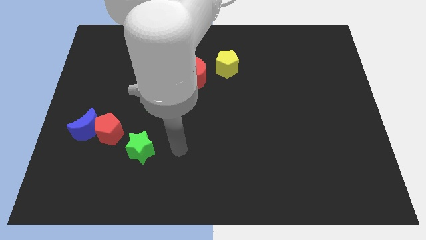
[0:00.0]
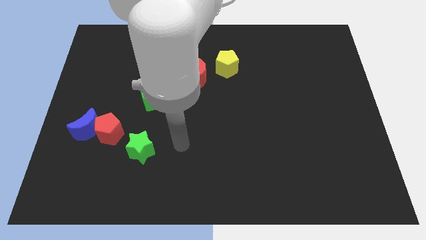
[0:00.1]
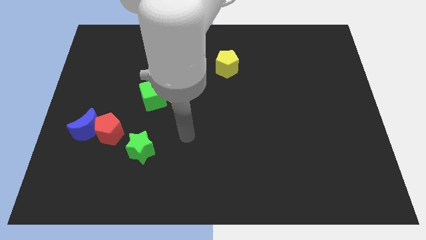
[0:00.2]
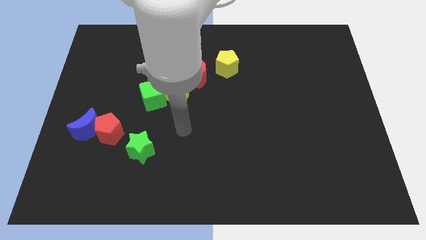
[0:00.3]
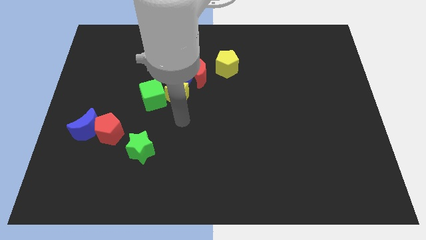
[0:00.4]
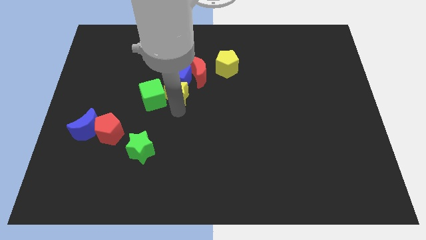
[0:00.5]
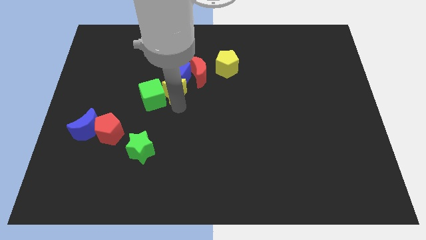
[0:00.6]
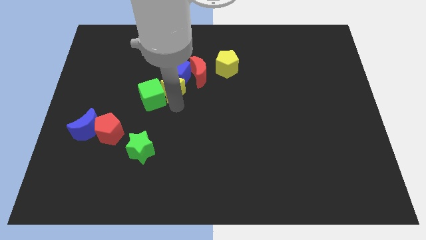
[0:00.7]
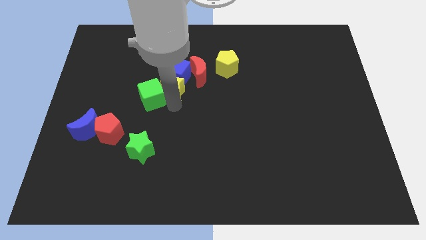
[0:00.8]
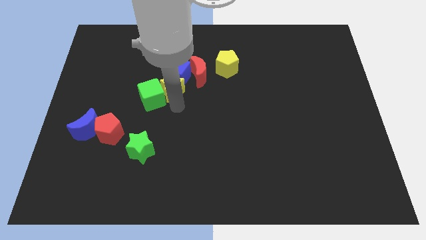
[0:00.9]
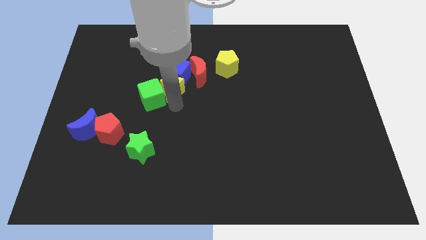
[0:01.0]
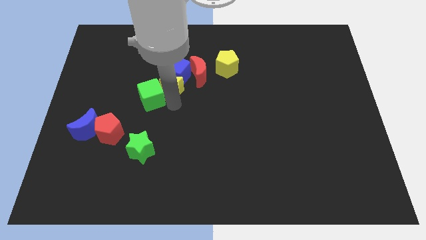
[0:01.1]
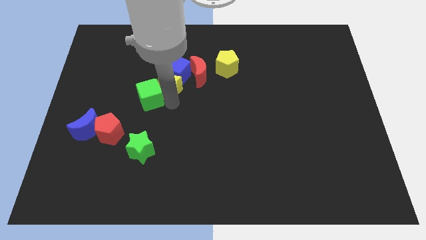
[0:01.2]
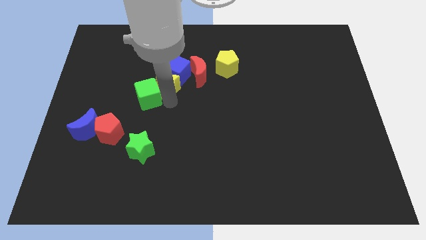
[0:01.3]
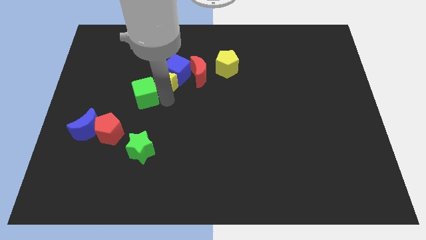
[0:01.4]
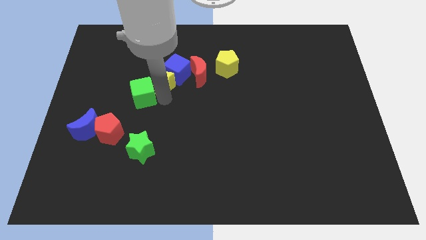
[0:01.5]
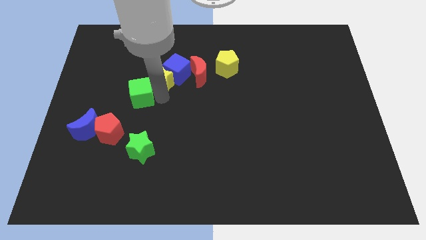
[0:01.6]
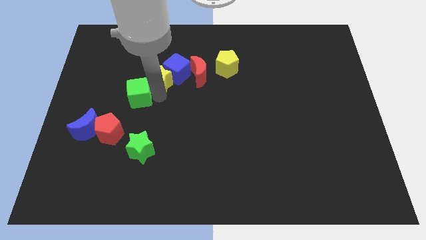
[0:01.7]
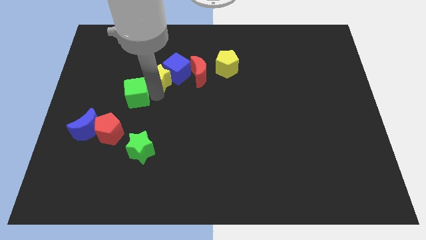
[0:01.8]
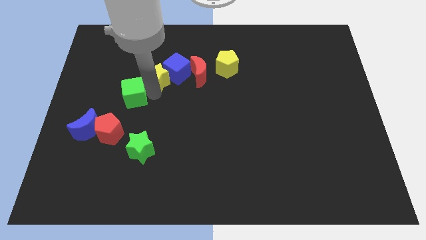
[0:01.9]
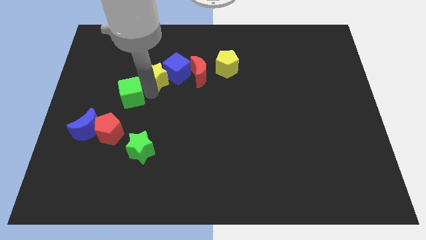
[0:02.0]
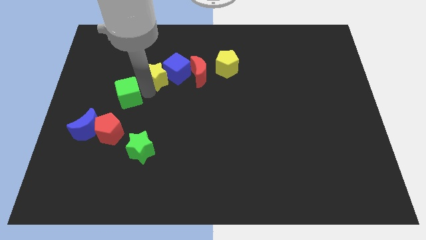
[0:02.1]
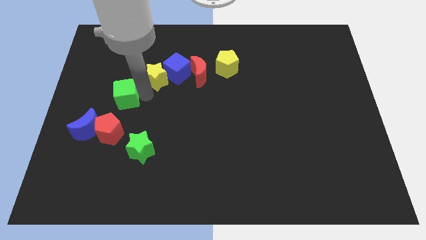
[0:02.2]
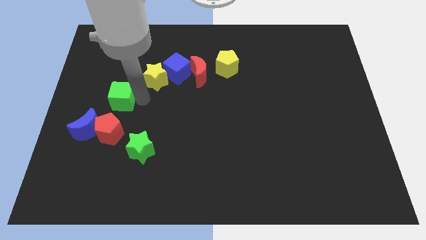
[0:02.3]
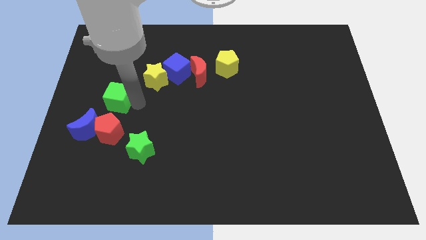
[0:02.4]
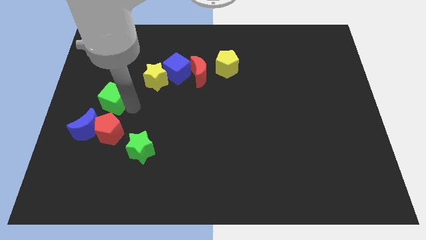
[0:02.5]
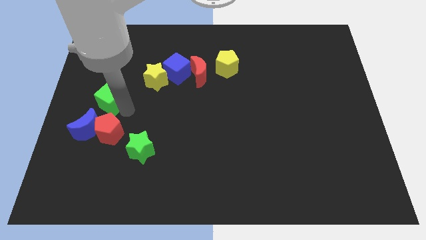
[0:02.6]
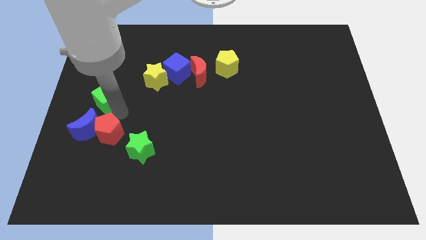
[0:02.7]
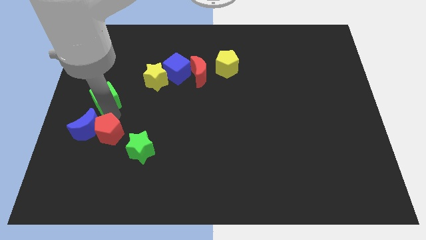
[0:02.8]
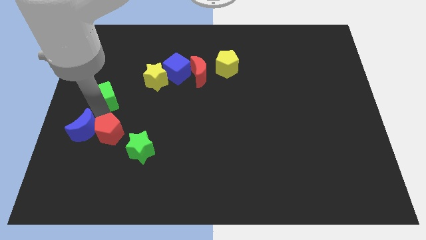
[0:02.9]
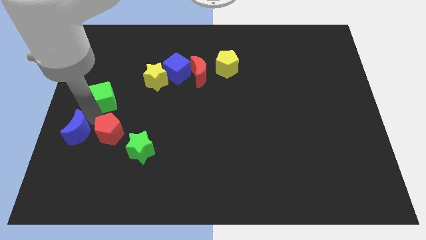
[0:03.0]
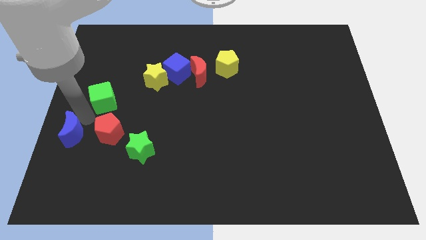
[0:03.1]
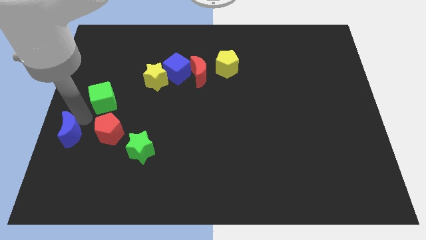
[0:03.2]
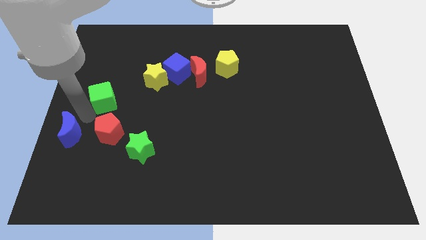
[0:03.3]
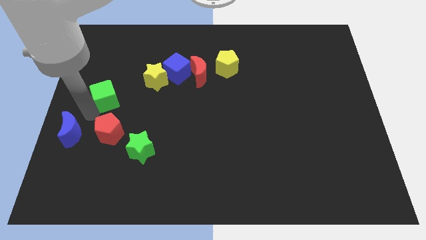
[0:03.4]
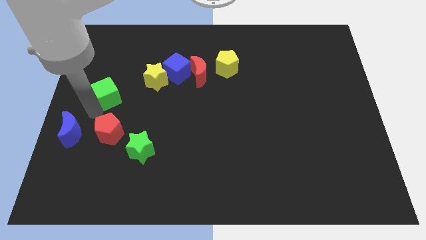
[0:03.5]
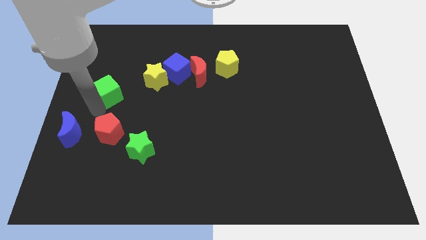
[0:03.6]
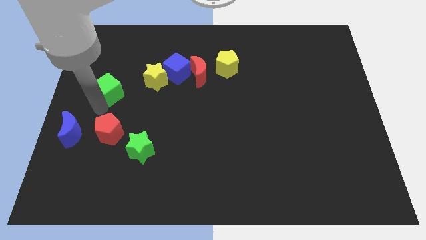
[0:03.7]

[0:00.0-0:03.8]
push the green cube a little bit up and to the left diagonally

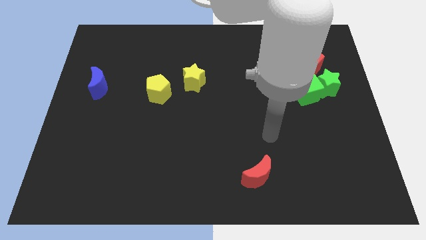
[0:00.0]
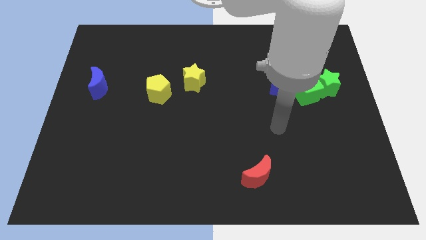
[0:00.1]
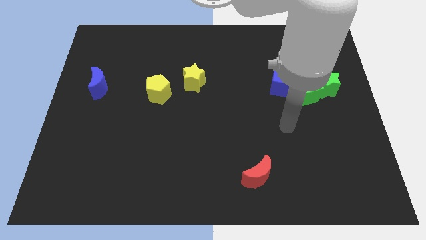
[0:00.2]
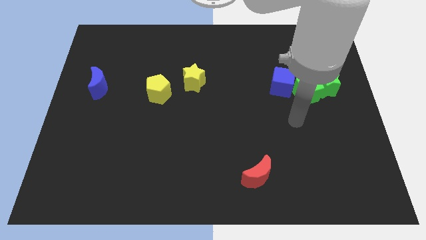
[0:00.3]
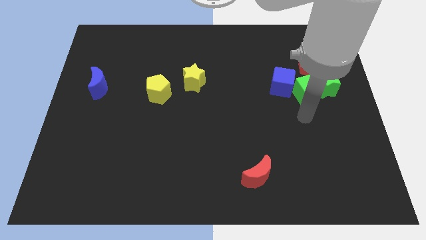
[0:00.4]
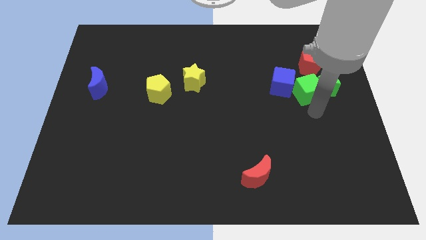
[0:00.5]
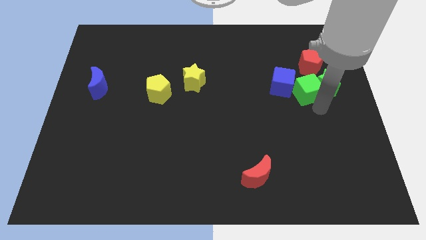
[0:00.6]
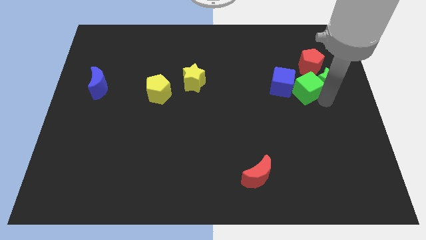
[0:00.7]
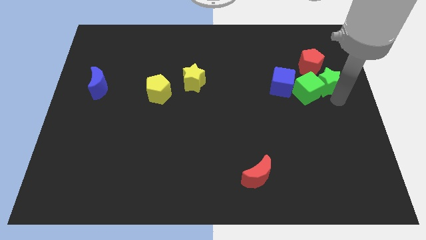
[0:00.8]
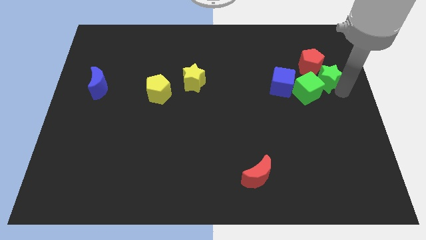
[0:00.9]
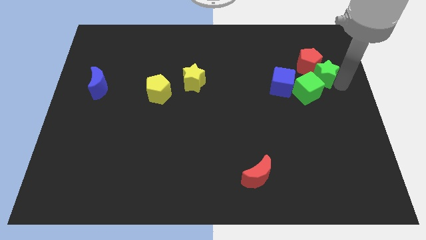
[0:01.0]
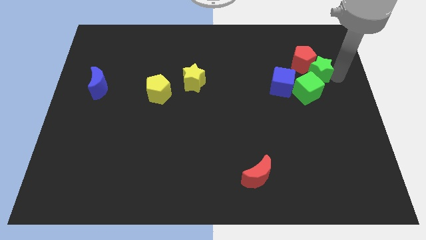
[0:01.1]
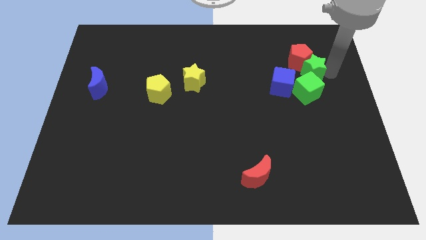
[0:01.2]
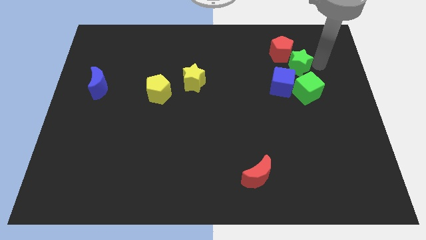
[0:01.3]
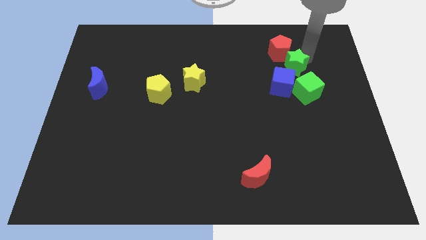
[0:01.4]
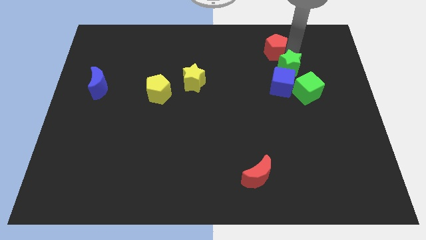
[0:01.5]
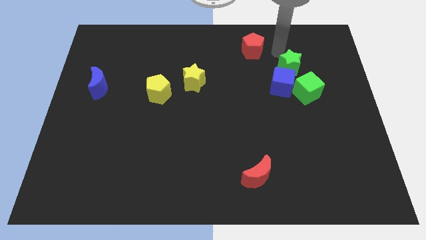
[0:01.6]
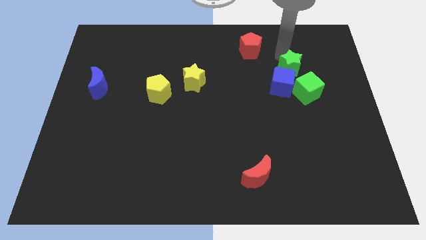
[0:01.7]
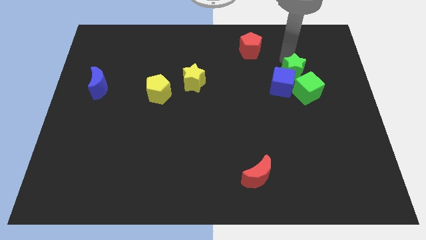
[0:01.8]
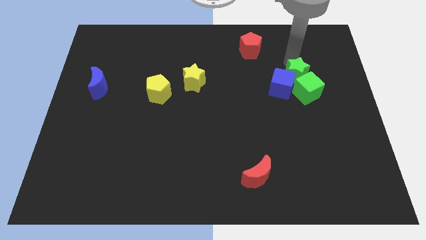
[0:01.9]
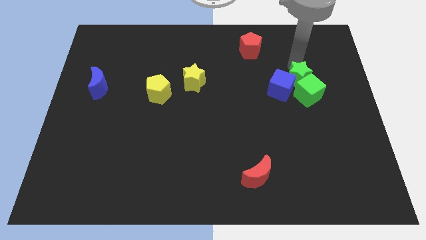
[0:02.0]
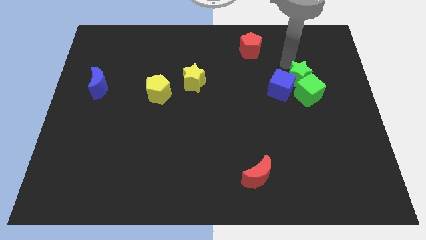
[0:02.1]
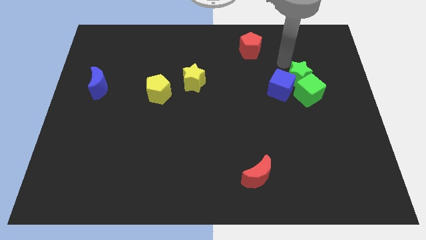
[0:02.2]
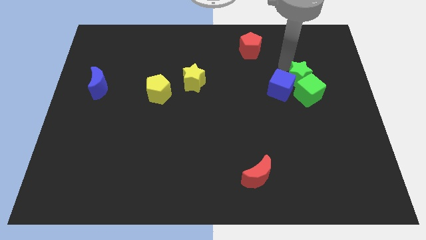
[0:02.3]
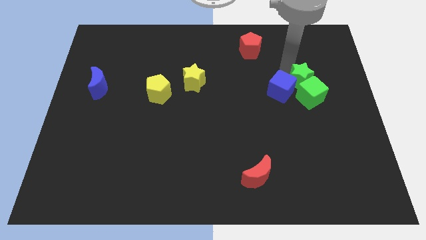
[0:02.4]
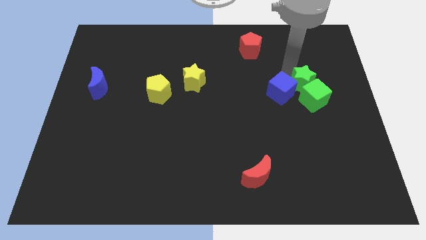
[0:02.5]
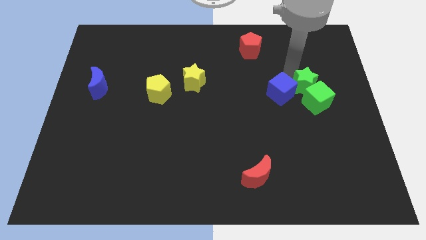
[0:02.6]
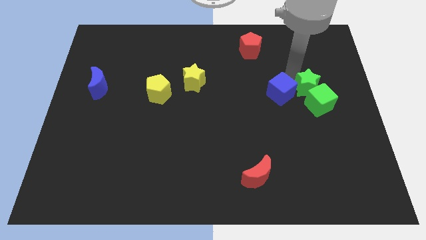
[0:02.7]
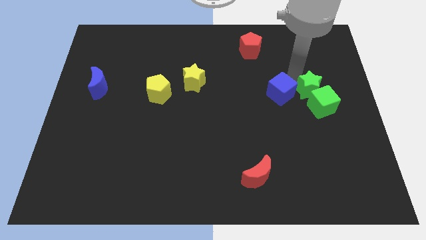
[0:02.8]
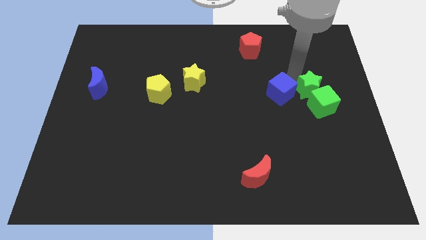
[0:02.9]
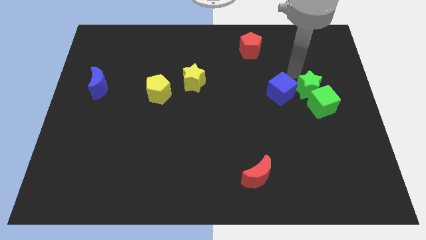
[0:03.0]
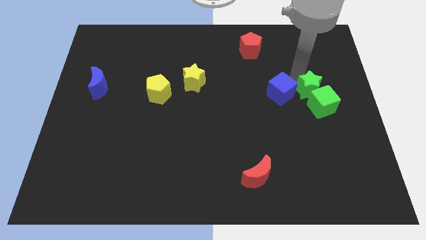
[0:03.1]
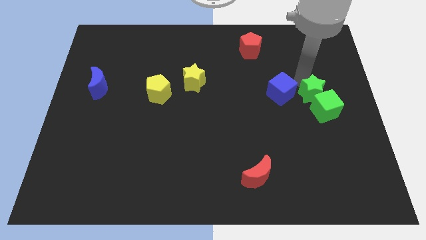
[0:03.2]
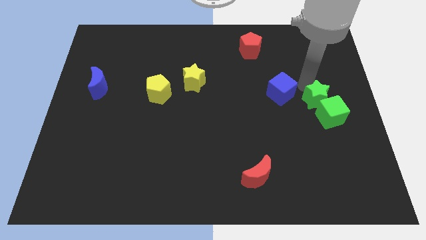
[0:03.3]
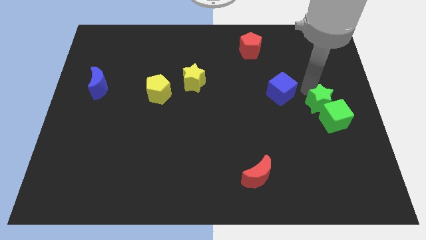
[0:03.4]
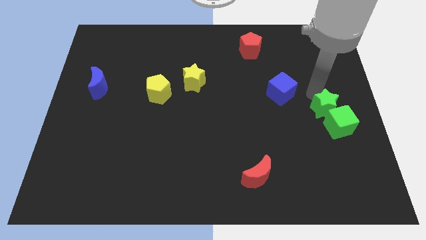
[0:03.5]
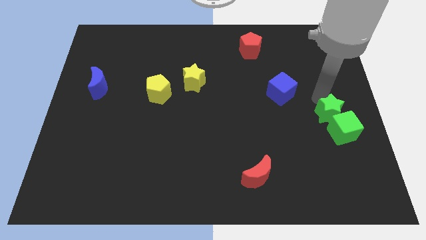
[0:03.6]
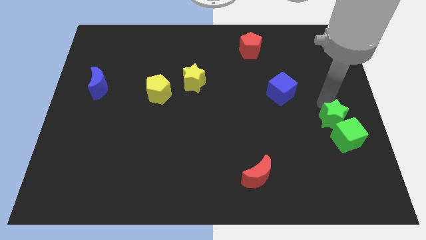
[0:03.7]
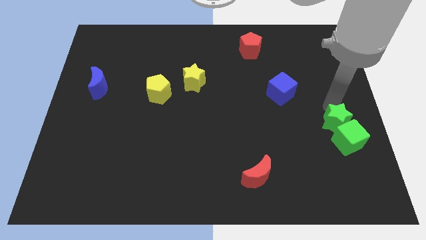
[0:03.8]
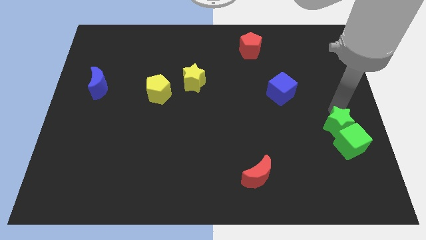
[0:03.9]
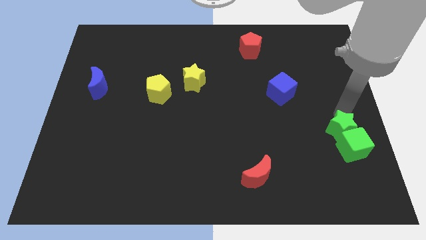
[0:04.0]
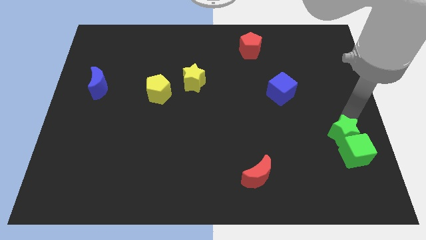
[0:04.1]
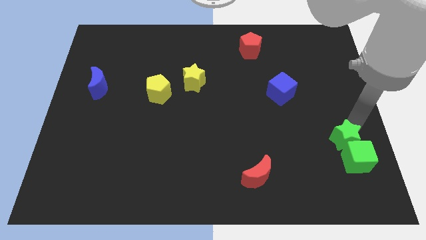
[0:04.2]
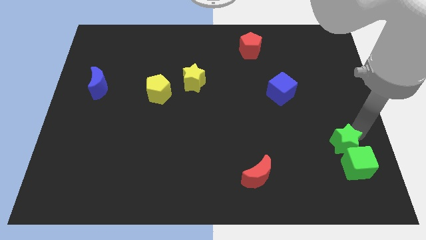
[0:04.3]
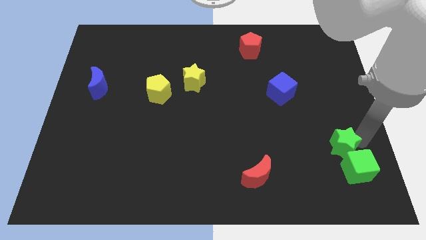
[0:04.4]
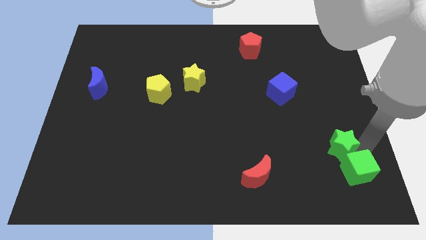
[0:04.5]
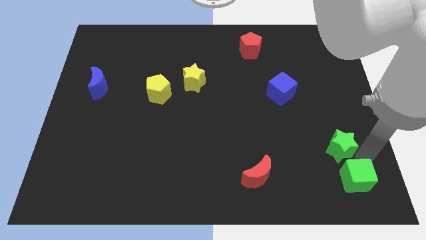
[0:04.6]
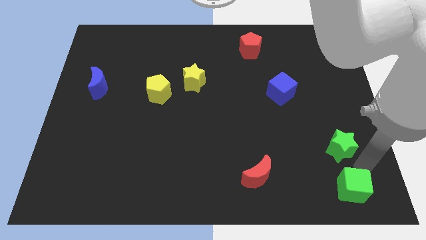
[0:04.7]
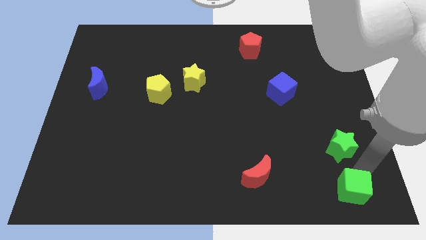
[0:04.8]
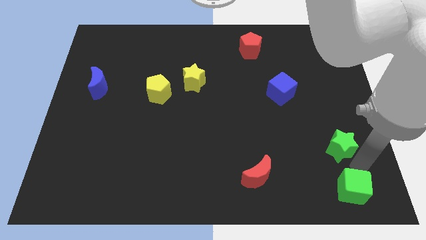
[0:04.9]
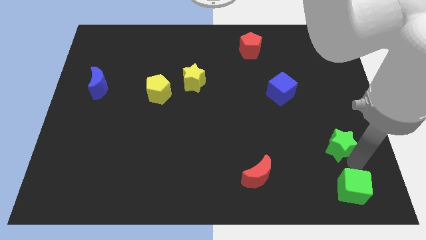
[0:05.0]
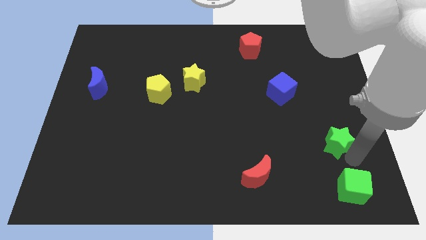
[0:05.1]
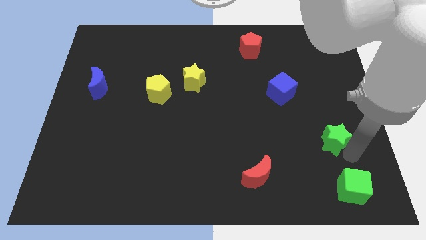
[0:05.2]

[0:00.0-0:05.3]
move the green star slightly diagonally downwards and to the left
